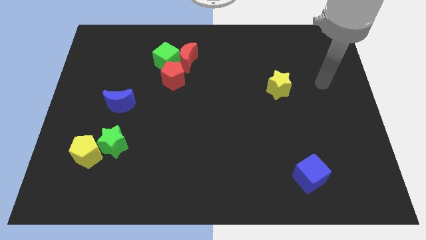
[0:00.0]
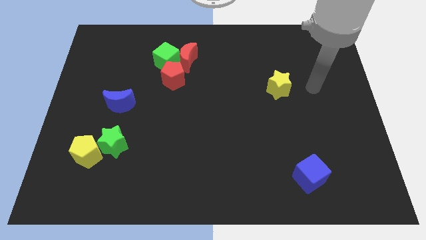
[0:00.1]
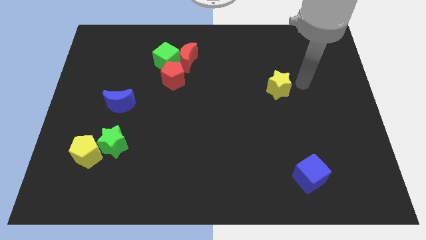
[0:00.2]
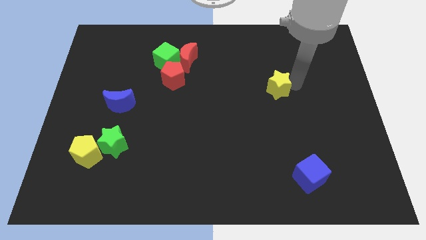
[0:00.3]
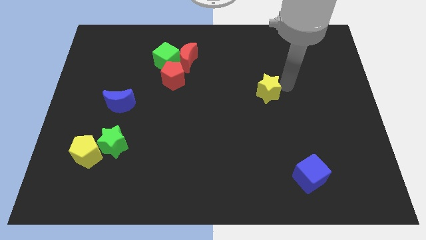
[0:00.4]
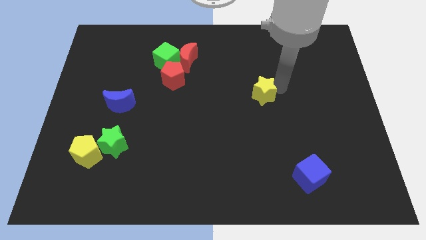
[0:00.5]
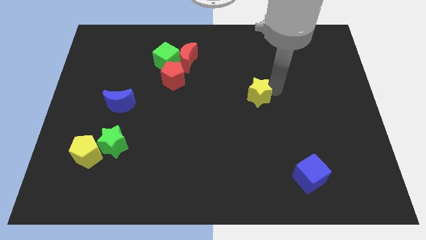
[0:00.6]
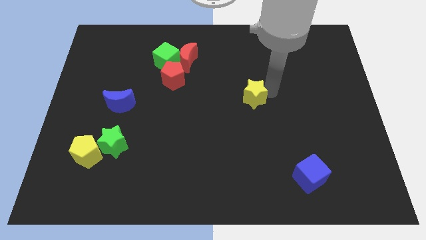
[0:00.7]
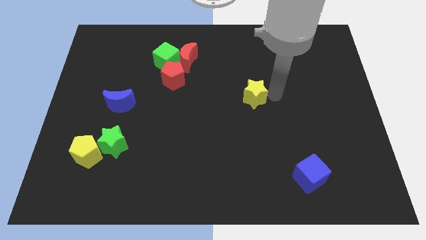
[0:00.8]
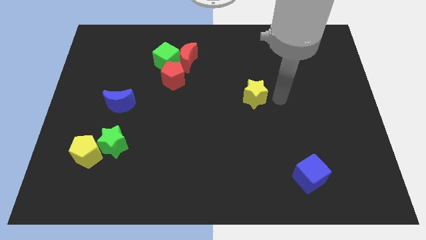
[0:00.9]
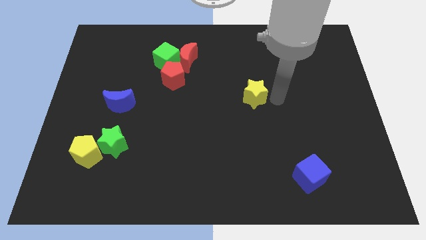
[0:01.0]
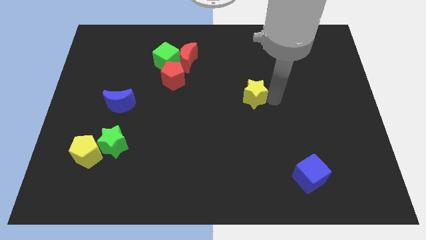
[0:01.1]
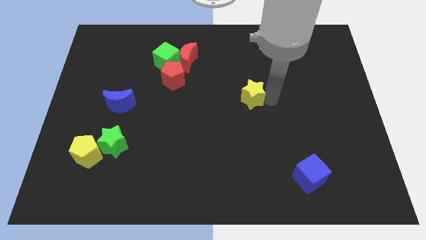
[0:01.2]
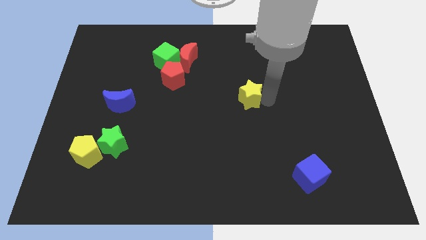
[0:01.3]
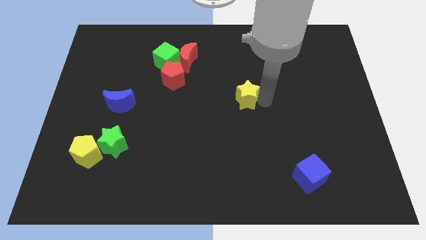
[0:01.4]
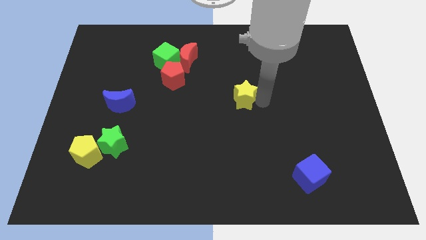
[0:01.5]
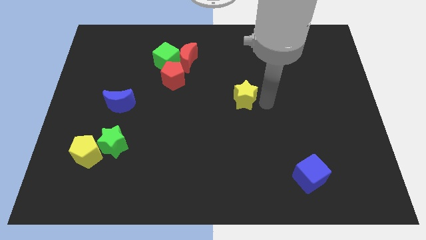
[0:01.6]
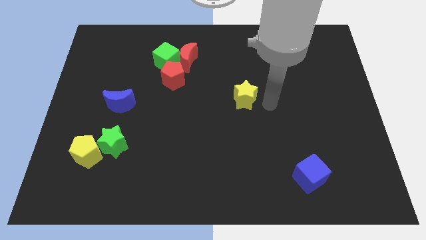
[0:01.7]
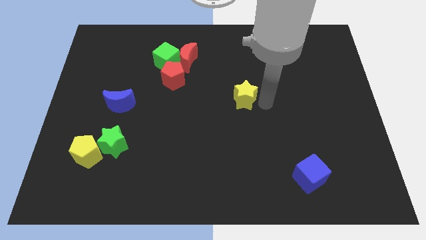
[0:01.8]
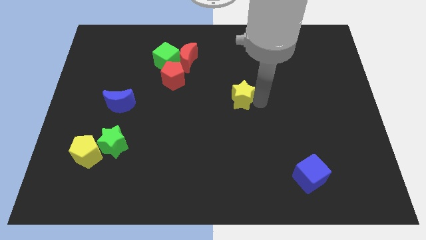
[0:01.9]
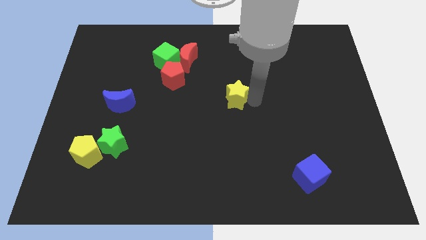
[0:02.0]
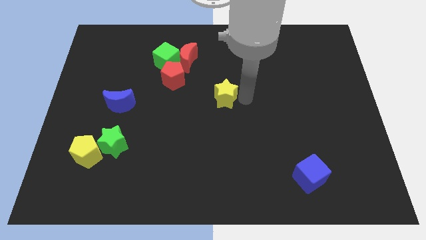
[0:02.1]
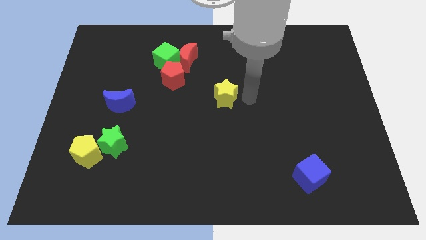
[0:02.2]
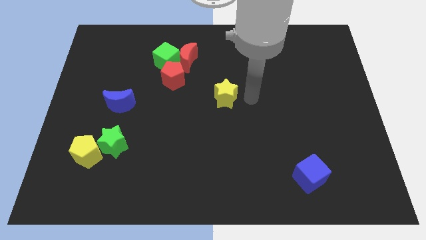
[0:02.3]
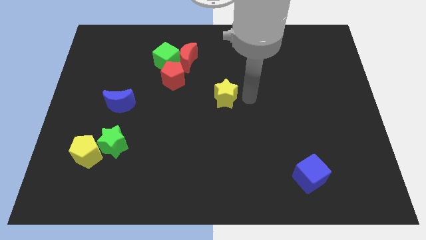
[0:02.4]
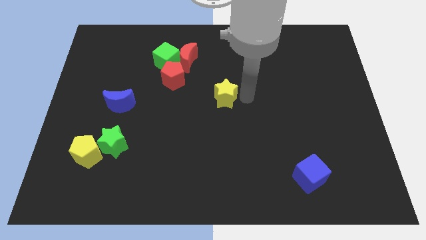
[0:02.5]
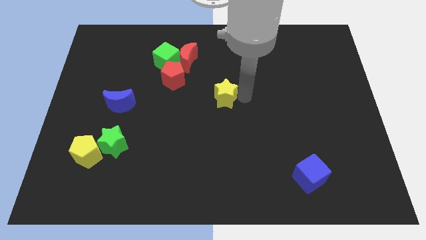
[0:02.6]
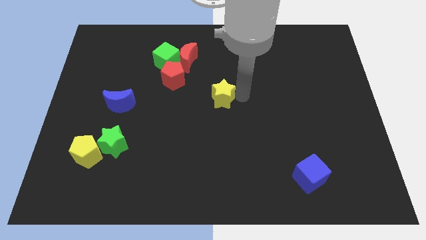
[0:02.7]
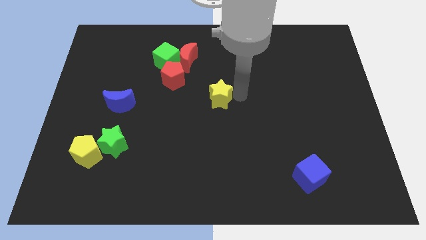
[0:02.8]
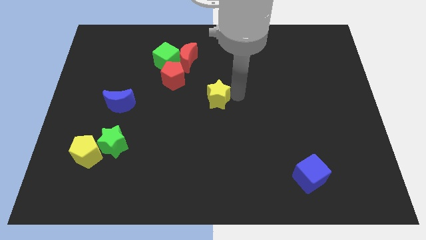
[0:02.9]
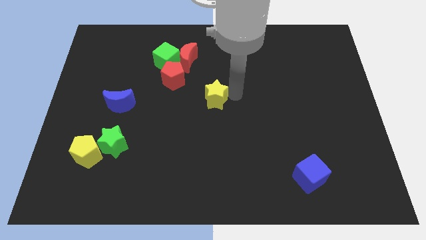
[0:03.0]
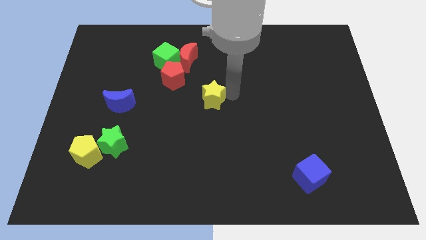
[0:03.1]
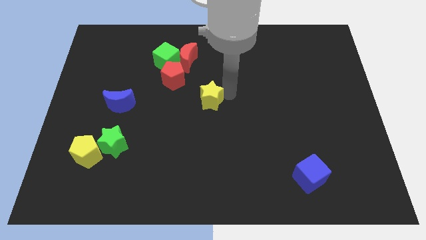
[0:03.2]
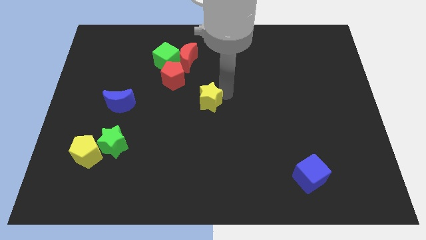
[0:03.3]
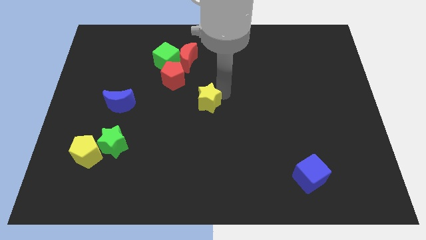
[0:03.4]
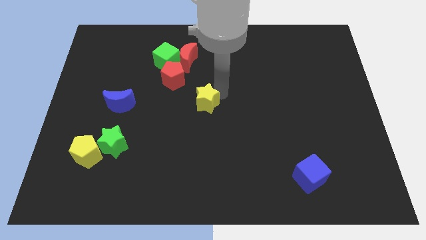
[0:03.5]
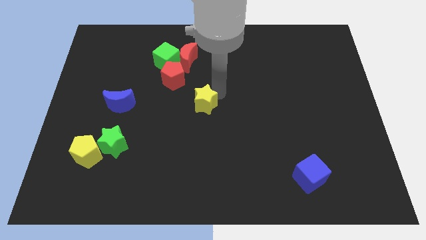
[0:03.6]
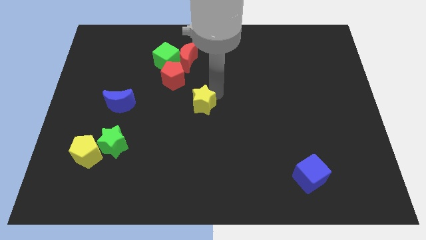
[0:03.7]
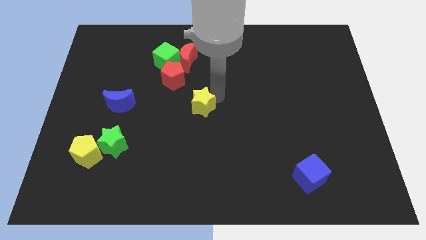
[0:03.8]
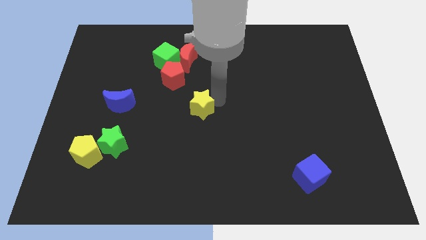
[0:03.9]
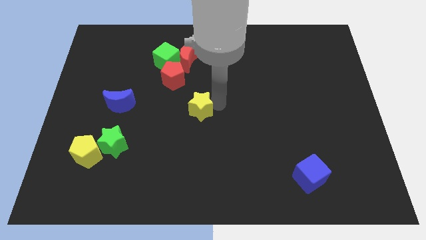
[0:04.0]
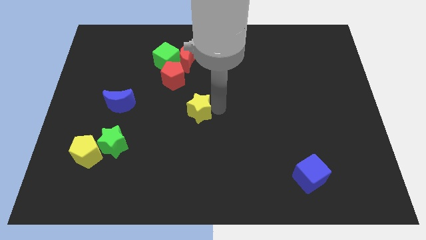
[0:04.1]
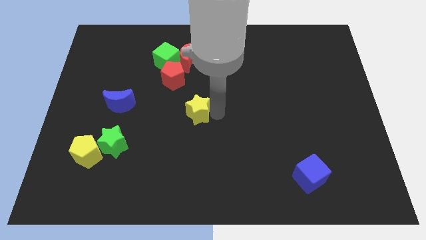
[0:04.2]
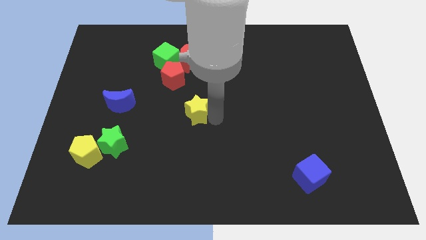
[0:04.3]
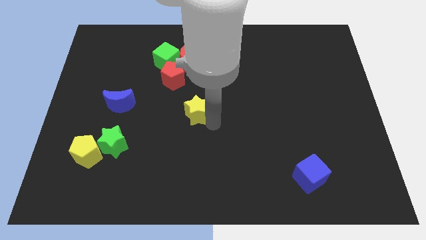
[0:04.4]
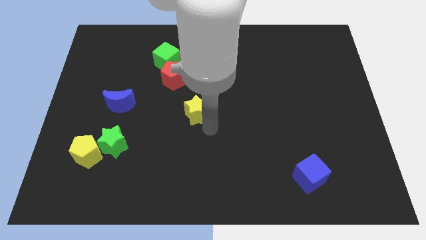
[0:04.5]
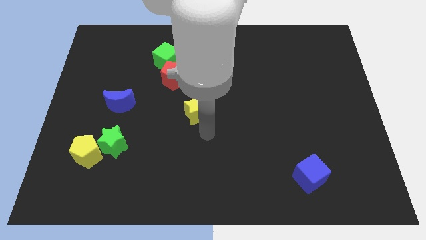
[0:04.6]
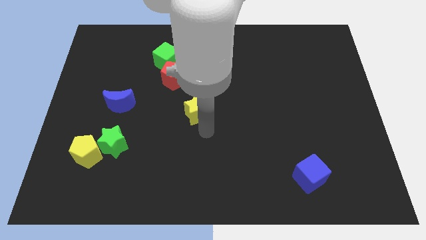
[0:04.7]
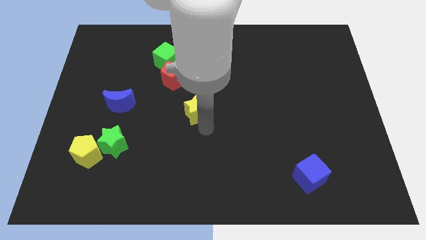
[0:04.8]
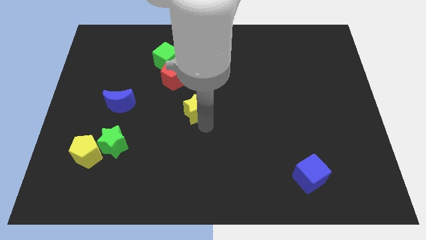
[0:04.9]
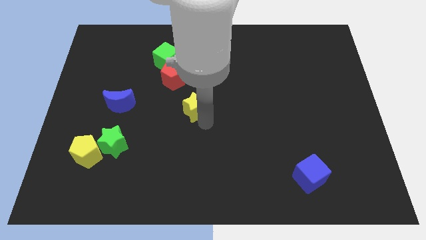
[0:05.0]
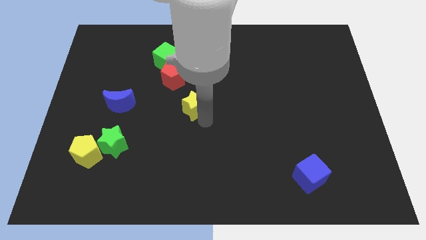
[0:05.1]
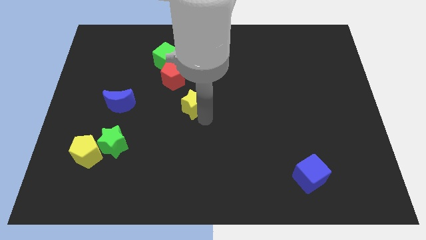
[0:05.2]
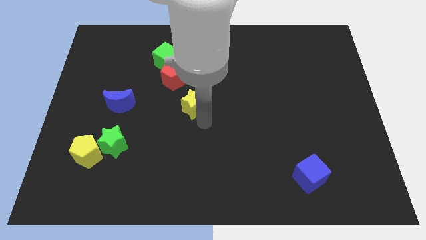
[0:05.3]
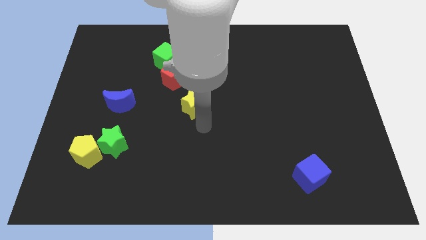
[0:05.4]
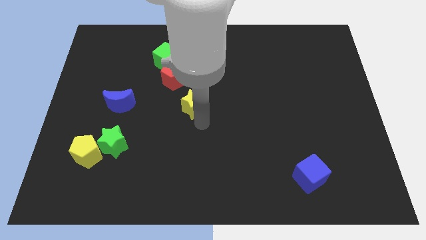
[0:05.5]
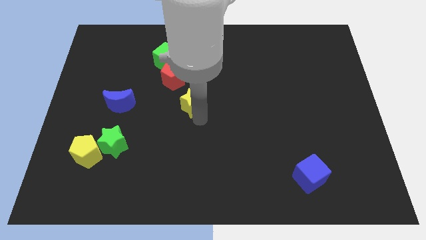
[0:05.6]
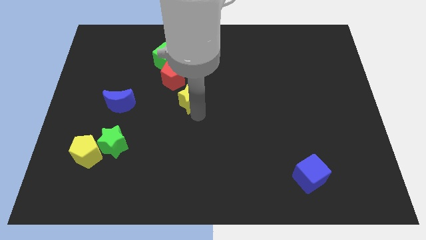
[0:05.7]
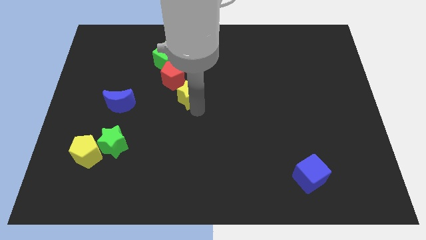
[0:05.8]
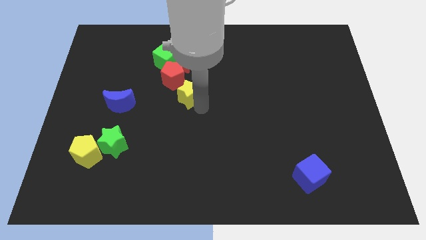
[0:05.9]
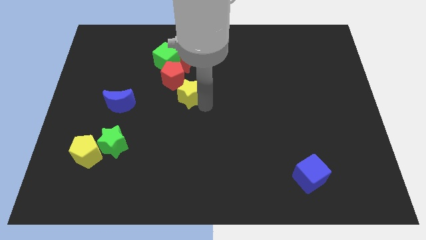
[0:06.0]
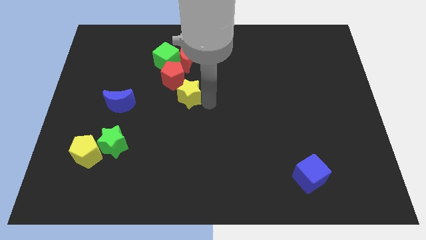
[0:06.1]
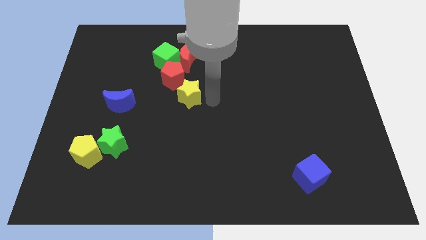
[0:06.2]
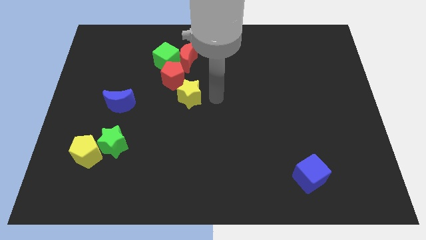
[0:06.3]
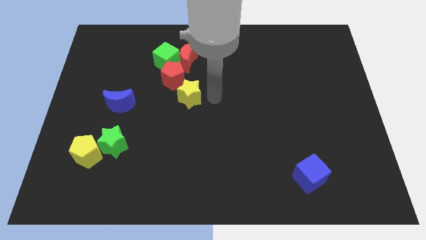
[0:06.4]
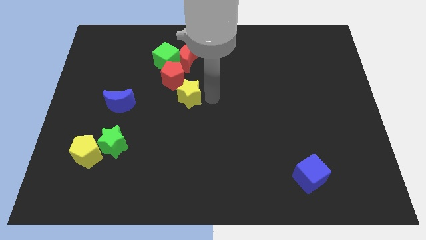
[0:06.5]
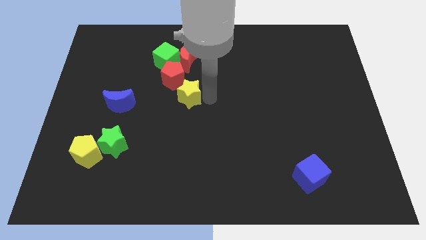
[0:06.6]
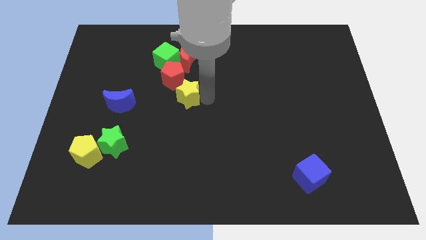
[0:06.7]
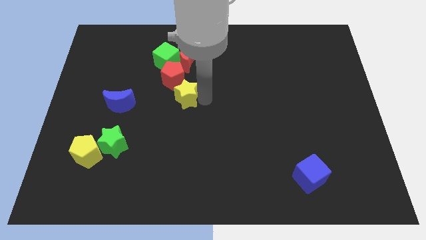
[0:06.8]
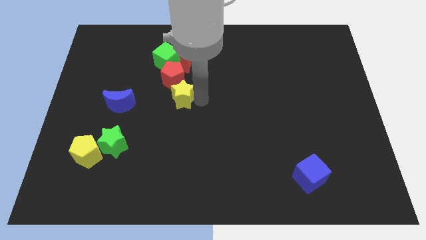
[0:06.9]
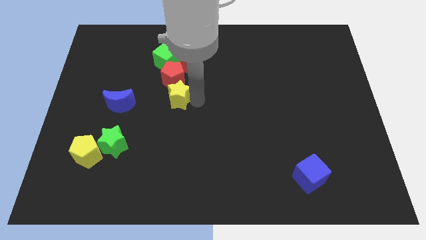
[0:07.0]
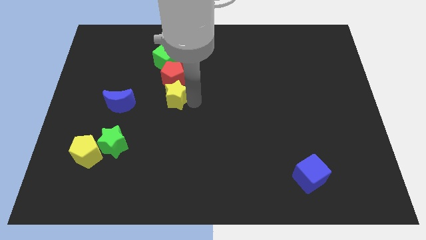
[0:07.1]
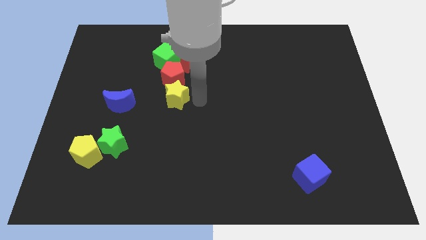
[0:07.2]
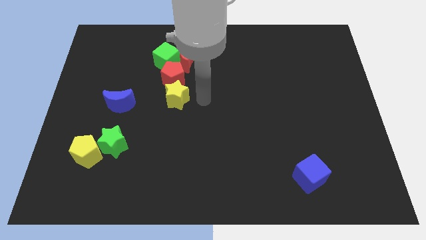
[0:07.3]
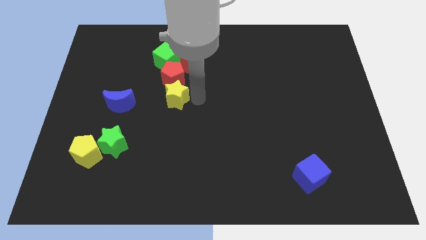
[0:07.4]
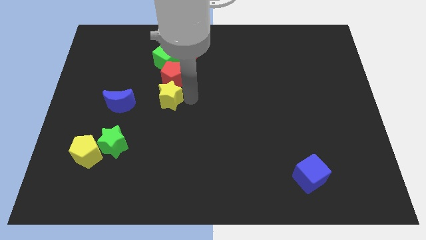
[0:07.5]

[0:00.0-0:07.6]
slide the yellow star to the bottom left side of the red pentagon
